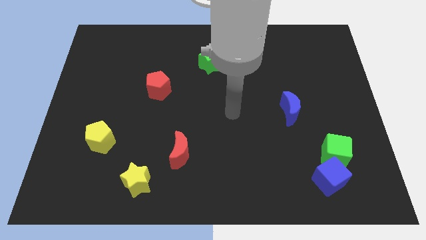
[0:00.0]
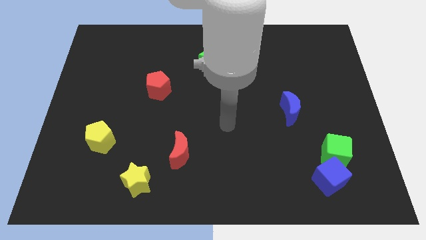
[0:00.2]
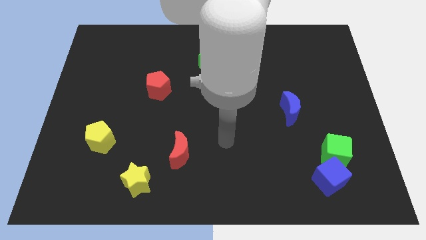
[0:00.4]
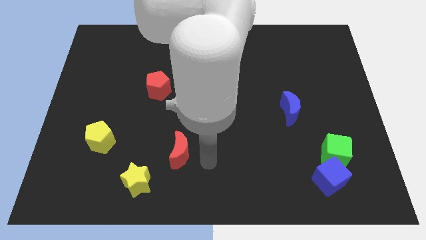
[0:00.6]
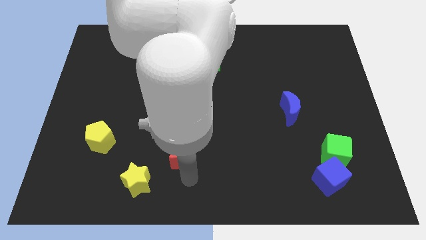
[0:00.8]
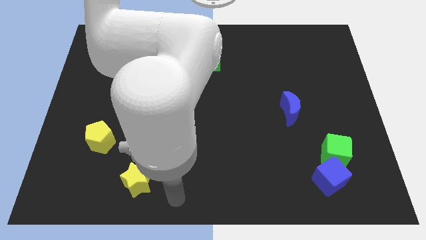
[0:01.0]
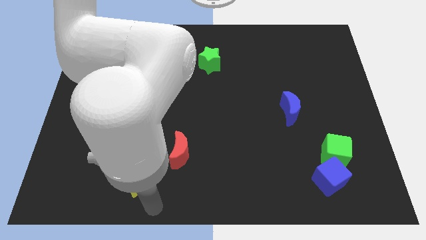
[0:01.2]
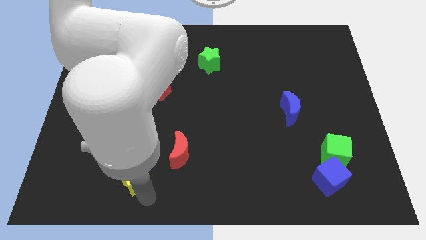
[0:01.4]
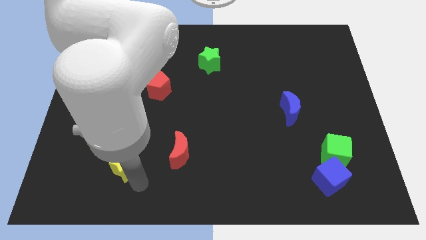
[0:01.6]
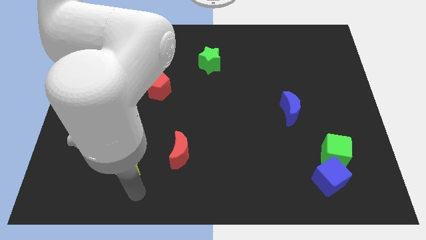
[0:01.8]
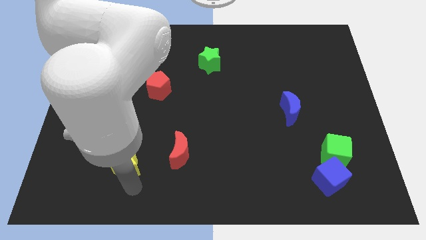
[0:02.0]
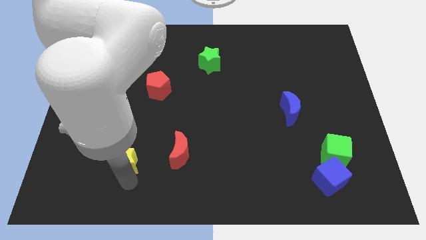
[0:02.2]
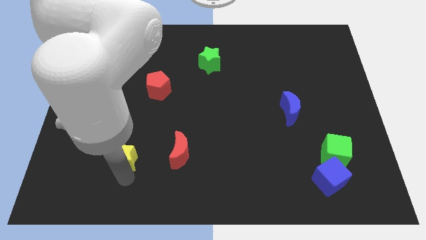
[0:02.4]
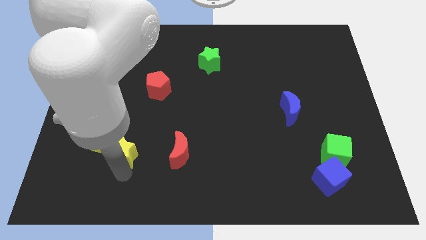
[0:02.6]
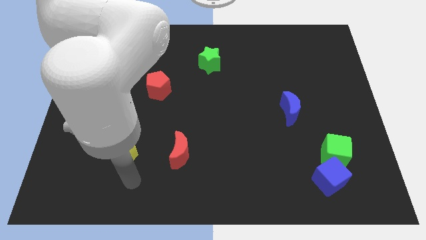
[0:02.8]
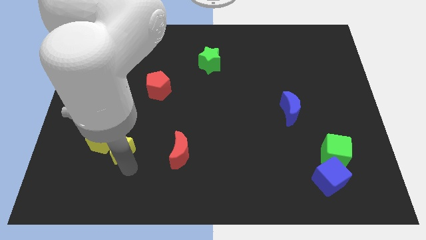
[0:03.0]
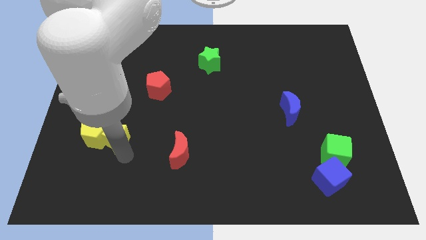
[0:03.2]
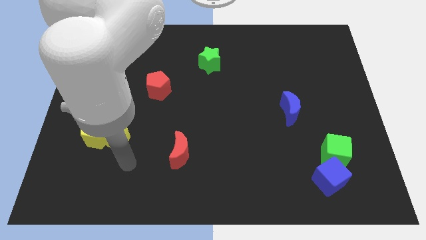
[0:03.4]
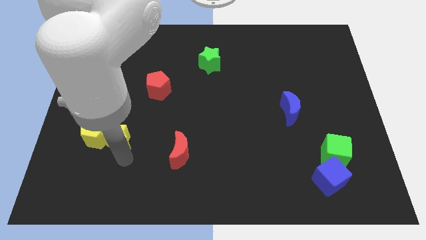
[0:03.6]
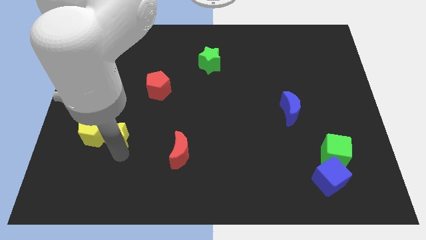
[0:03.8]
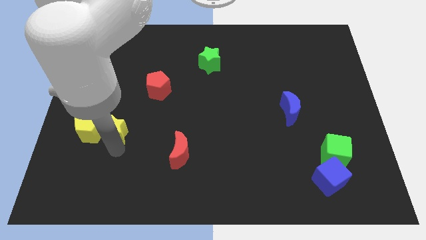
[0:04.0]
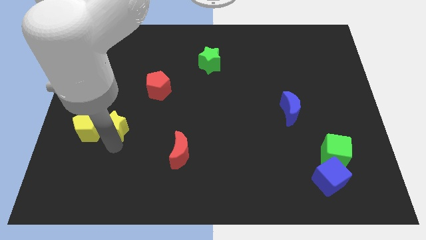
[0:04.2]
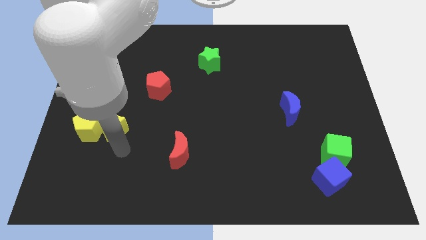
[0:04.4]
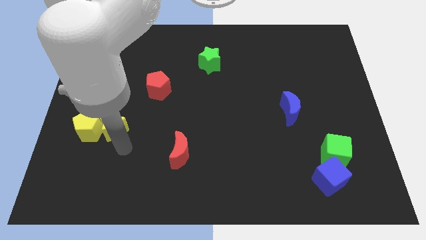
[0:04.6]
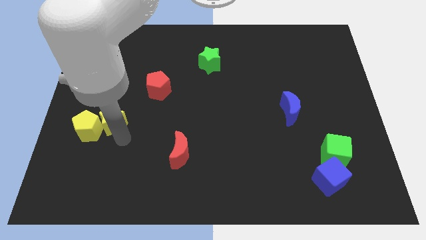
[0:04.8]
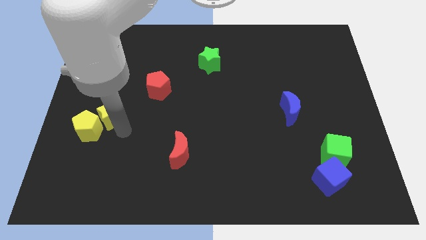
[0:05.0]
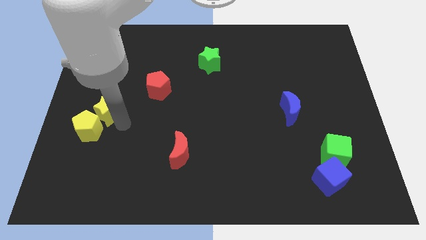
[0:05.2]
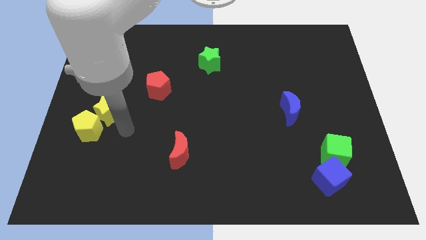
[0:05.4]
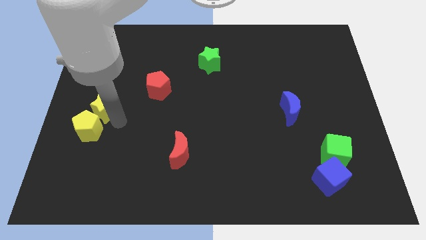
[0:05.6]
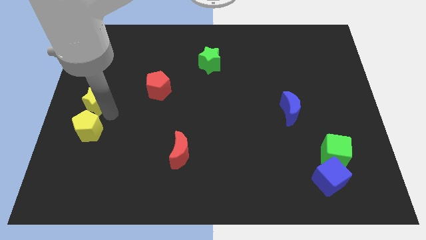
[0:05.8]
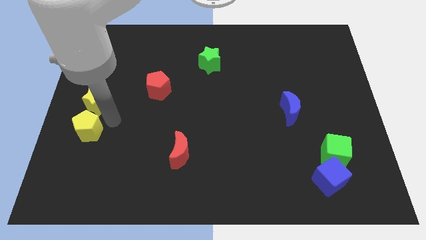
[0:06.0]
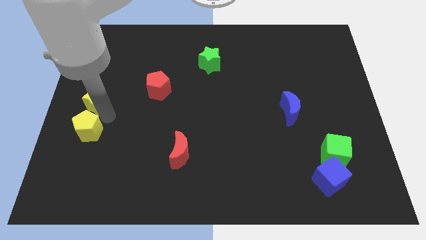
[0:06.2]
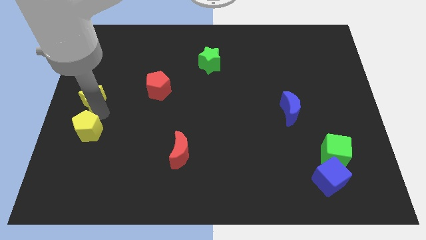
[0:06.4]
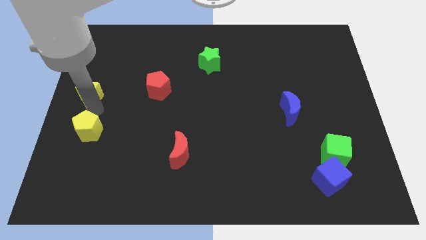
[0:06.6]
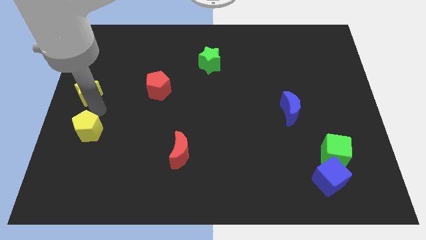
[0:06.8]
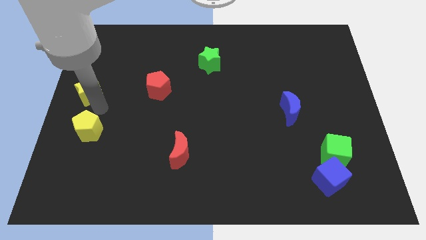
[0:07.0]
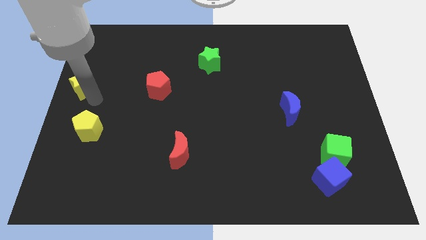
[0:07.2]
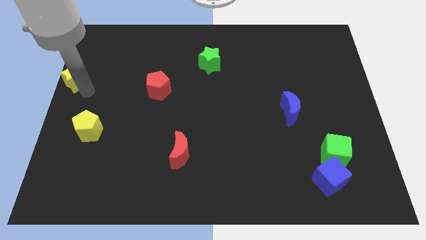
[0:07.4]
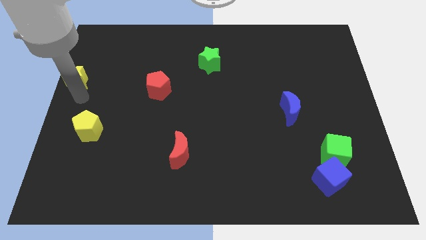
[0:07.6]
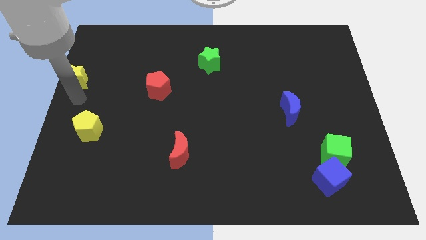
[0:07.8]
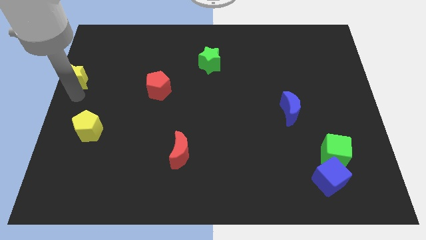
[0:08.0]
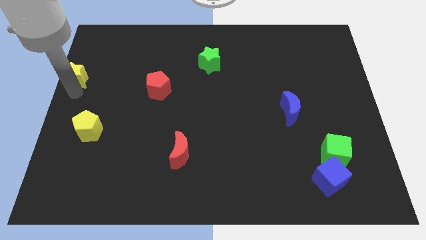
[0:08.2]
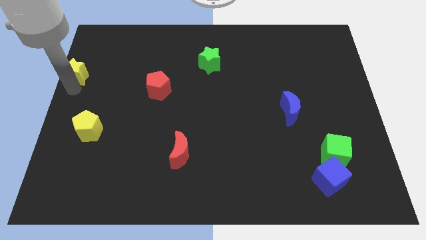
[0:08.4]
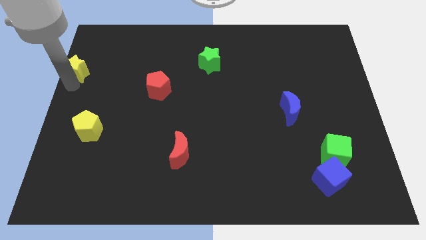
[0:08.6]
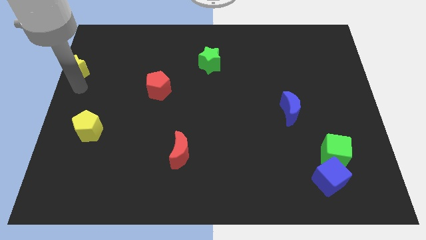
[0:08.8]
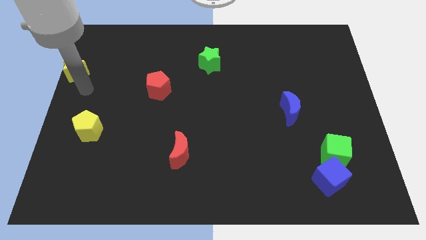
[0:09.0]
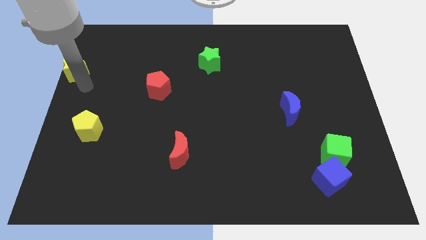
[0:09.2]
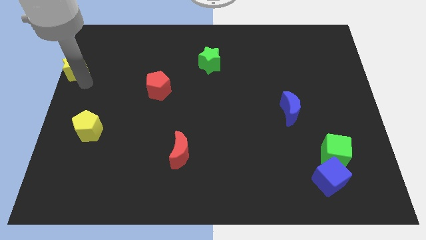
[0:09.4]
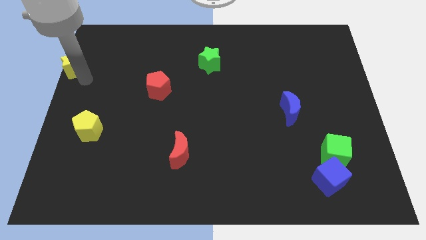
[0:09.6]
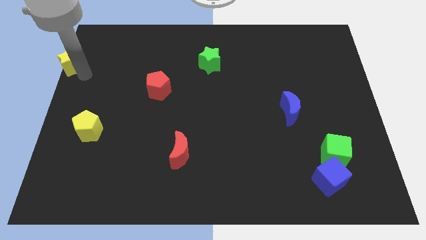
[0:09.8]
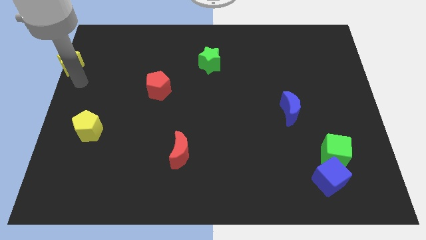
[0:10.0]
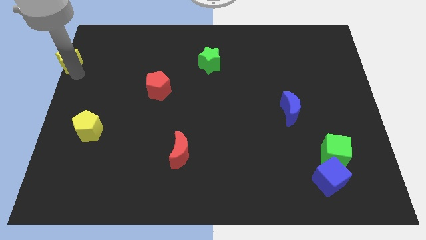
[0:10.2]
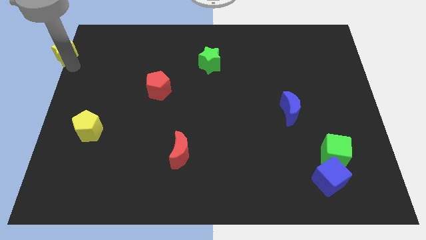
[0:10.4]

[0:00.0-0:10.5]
put the yellow star to the upper left corner

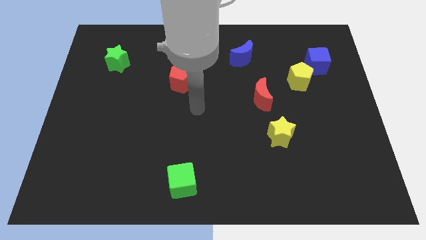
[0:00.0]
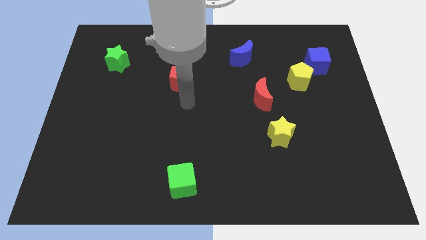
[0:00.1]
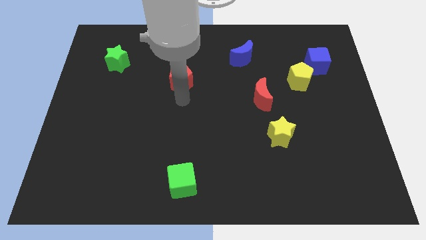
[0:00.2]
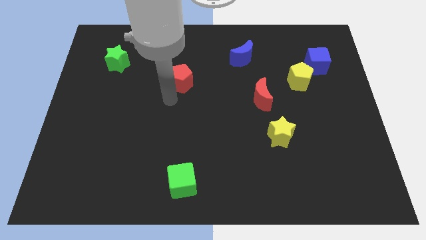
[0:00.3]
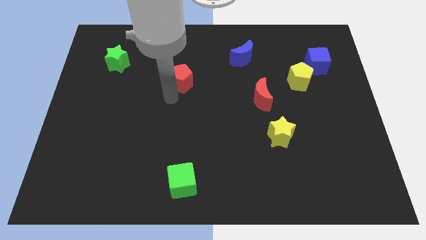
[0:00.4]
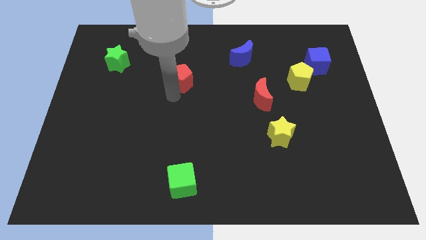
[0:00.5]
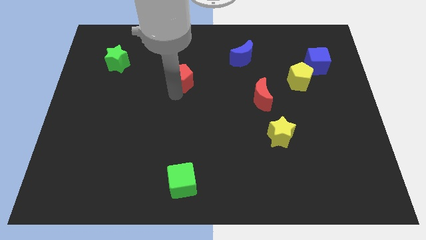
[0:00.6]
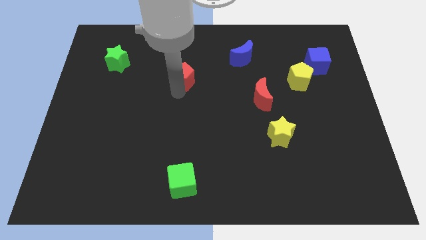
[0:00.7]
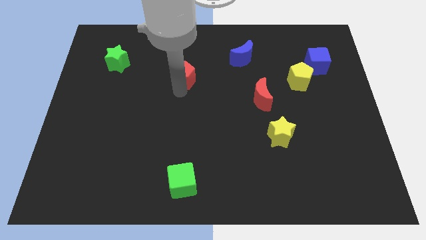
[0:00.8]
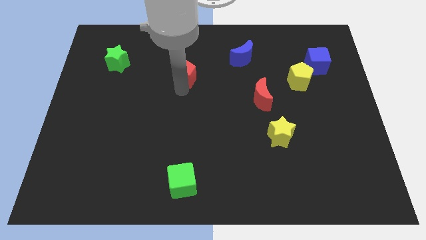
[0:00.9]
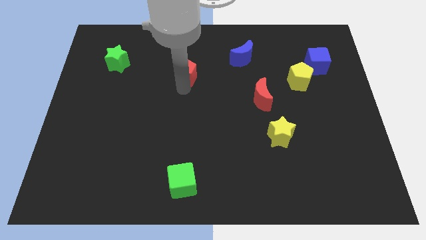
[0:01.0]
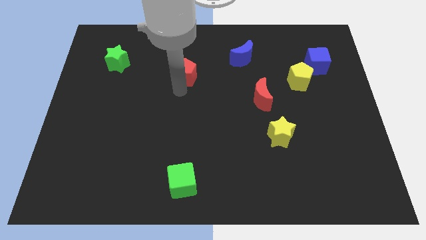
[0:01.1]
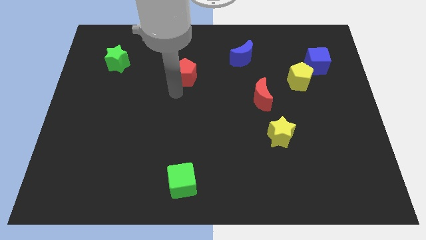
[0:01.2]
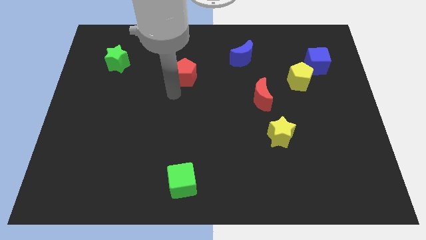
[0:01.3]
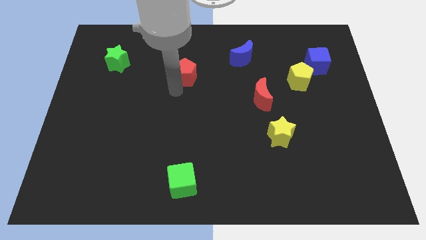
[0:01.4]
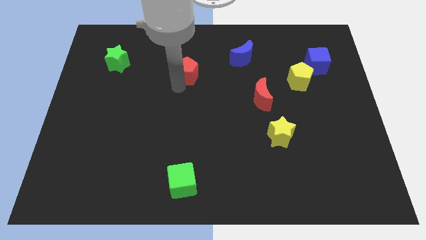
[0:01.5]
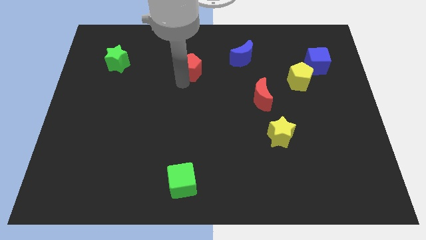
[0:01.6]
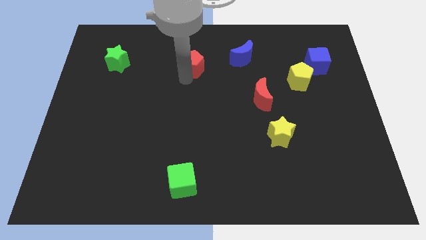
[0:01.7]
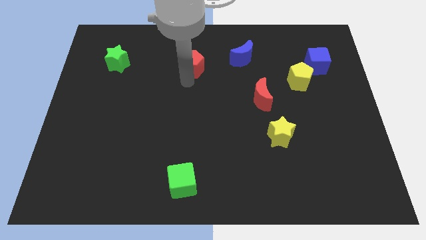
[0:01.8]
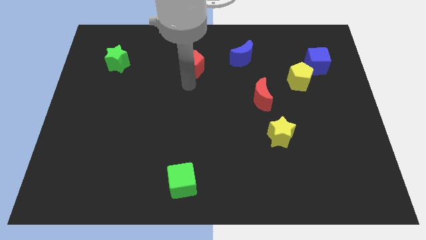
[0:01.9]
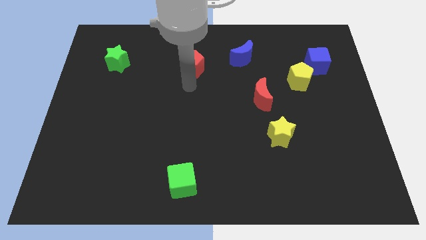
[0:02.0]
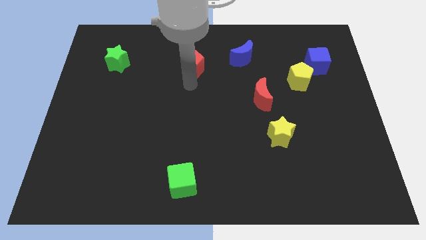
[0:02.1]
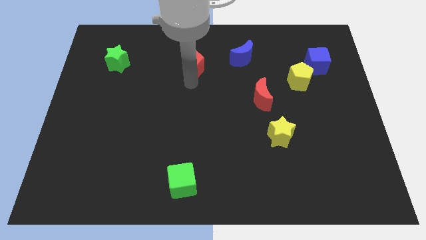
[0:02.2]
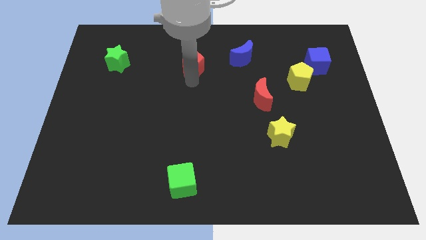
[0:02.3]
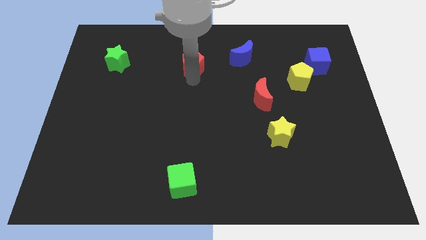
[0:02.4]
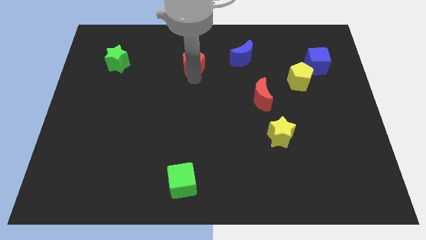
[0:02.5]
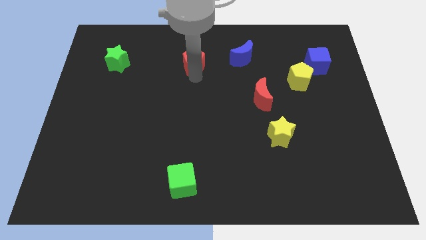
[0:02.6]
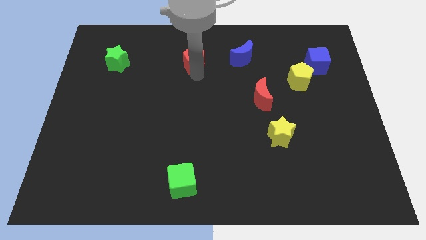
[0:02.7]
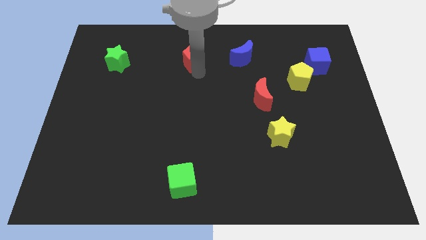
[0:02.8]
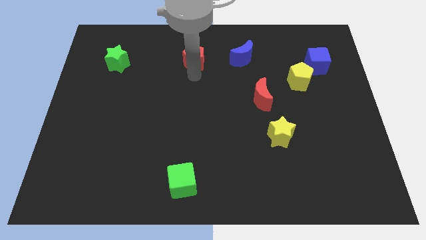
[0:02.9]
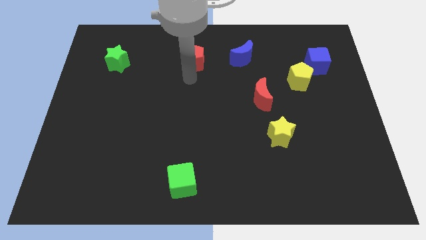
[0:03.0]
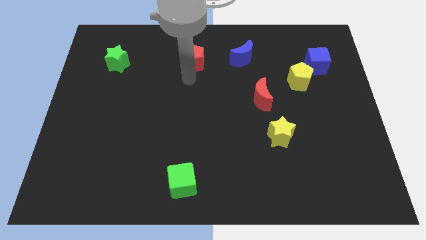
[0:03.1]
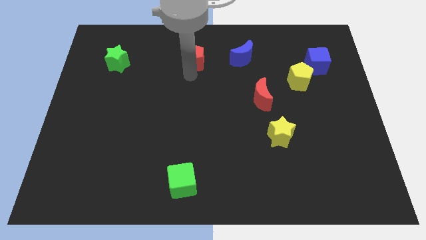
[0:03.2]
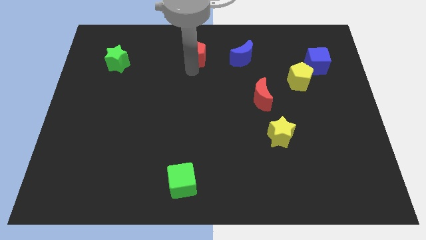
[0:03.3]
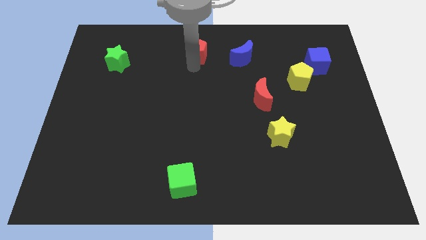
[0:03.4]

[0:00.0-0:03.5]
slide the red pentagon to the top
